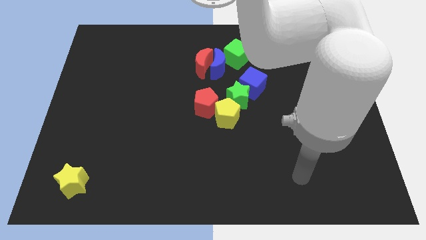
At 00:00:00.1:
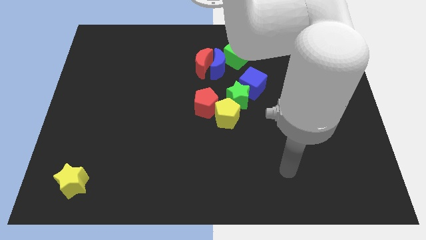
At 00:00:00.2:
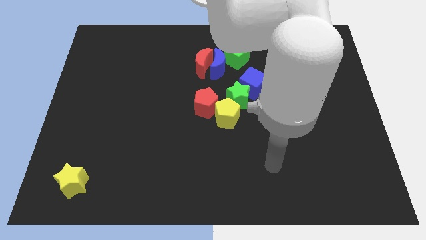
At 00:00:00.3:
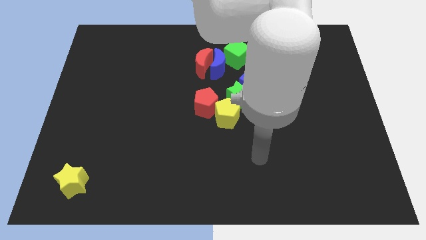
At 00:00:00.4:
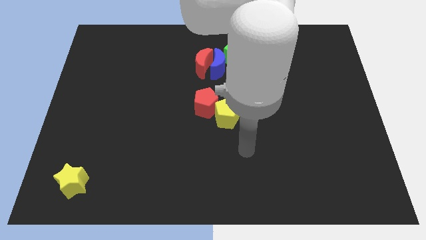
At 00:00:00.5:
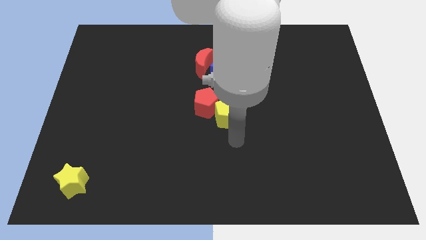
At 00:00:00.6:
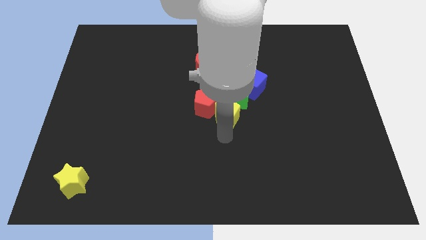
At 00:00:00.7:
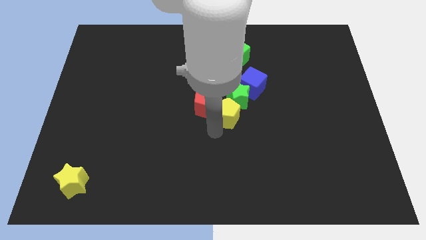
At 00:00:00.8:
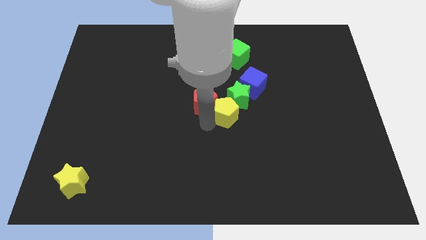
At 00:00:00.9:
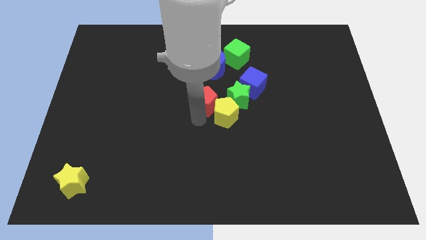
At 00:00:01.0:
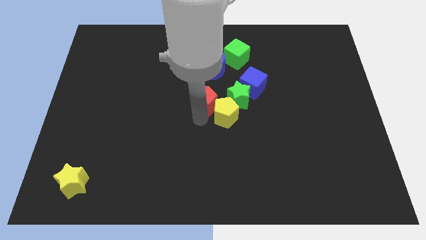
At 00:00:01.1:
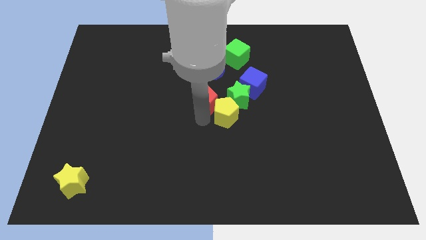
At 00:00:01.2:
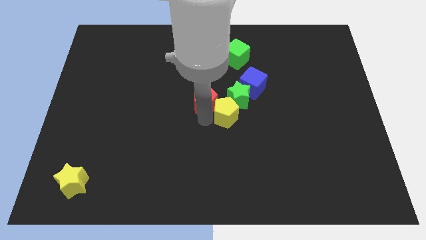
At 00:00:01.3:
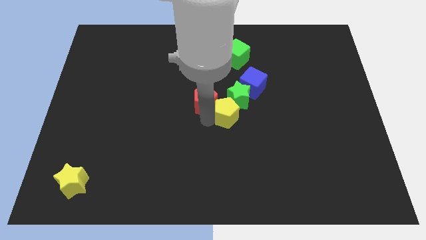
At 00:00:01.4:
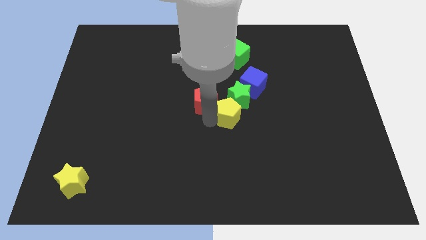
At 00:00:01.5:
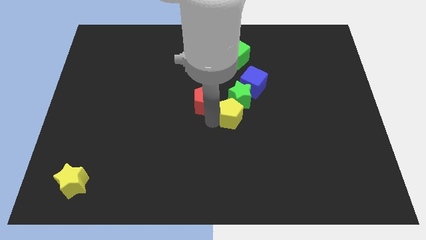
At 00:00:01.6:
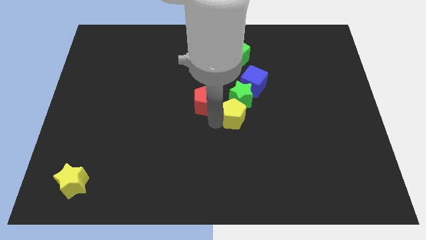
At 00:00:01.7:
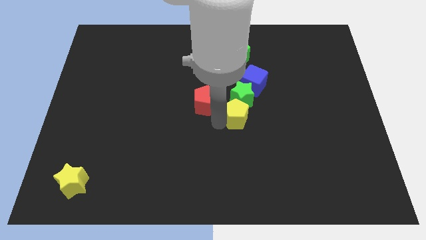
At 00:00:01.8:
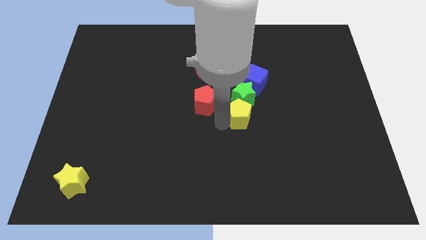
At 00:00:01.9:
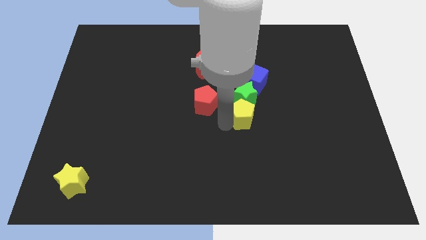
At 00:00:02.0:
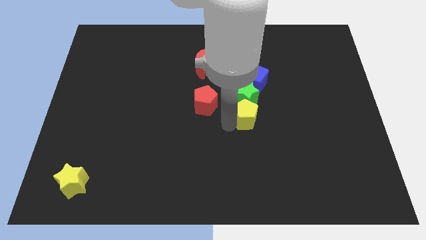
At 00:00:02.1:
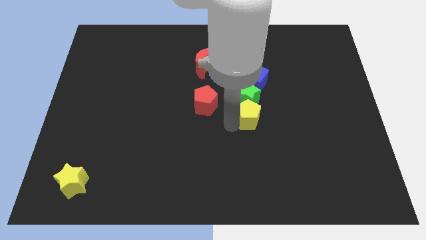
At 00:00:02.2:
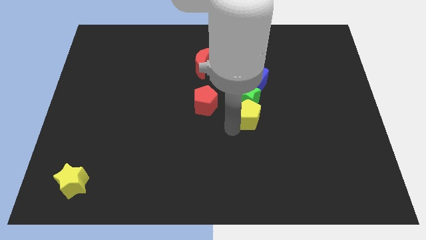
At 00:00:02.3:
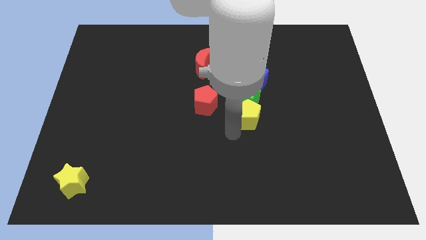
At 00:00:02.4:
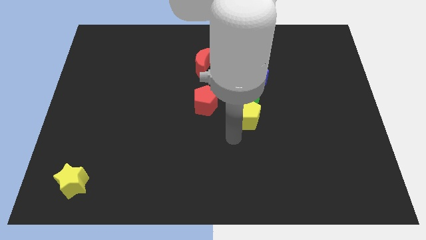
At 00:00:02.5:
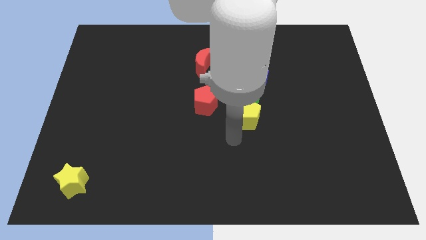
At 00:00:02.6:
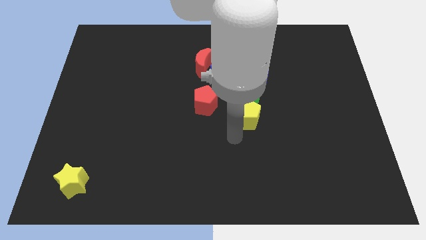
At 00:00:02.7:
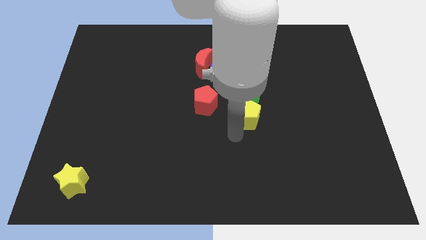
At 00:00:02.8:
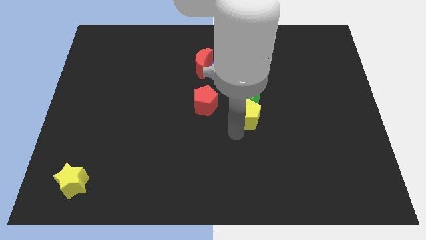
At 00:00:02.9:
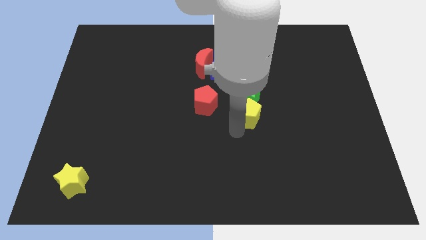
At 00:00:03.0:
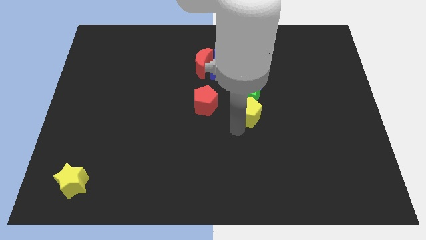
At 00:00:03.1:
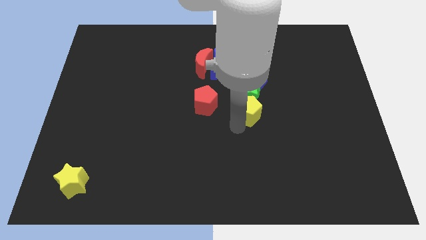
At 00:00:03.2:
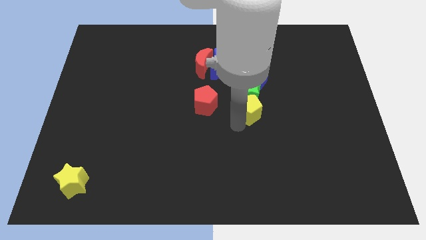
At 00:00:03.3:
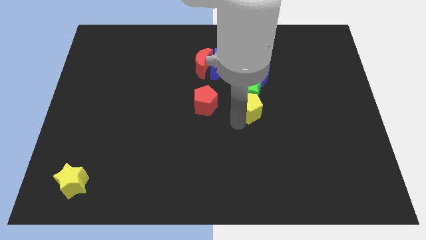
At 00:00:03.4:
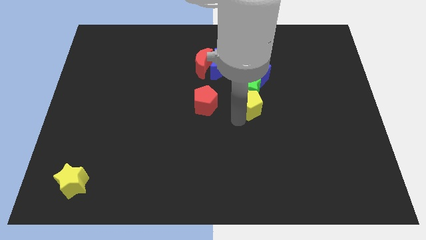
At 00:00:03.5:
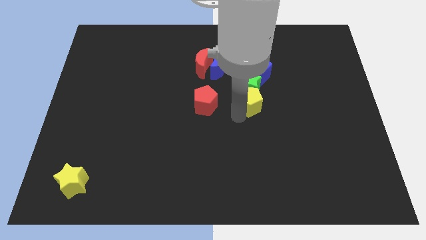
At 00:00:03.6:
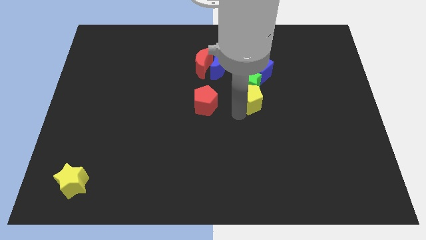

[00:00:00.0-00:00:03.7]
push the yellow pentagon somewhat up and to the right diagonally

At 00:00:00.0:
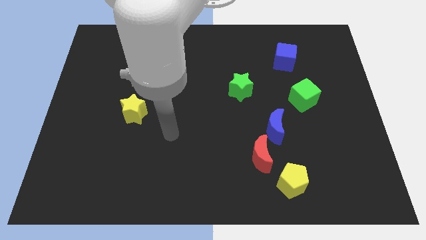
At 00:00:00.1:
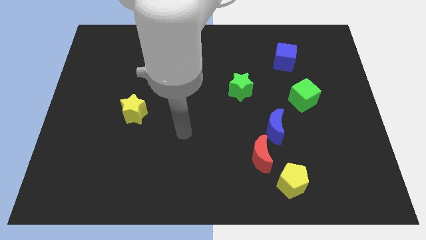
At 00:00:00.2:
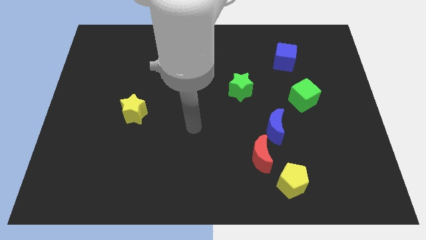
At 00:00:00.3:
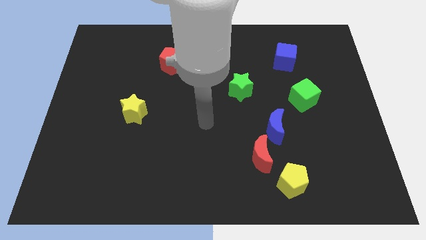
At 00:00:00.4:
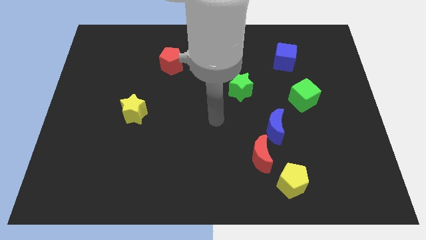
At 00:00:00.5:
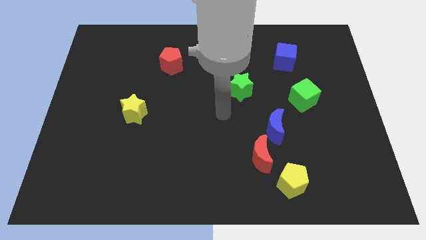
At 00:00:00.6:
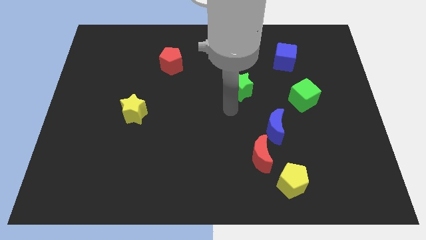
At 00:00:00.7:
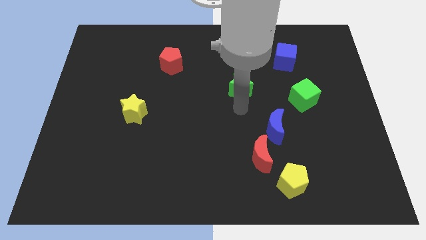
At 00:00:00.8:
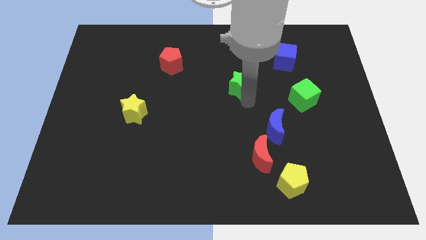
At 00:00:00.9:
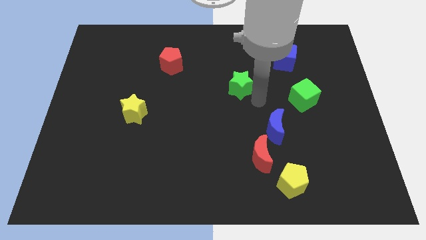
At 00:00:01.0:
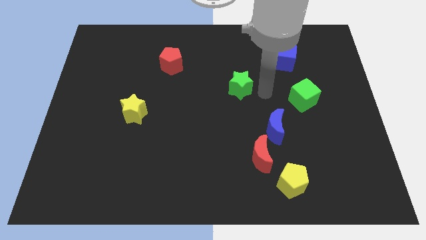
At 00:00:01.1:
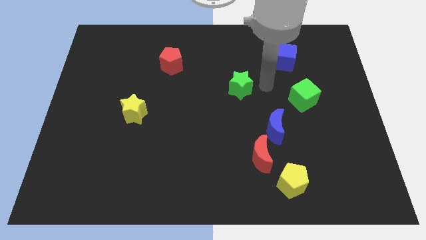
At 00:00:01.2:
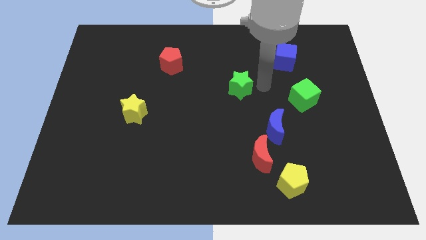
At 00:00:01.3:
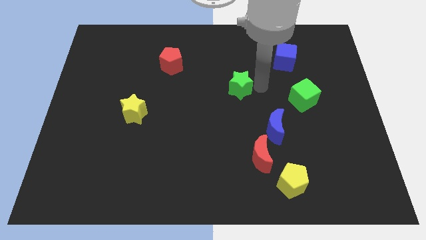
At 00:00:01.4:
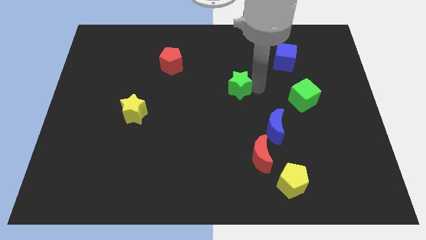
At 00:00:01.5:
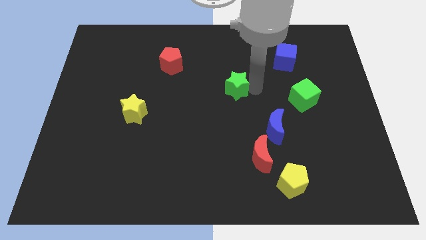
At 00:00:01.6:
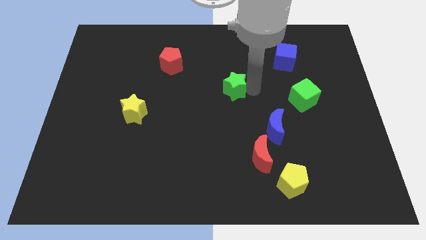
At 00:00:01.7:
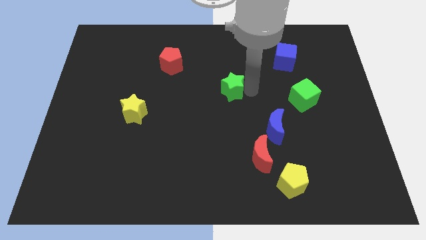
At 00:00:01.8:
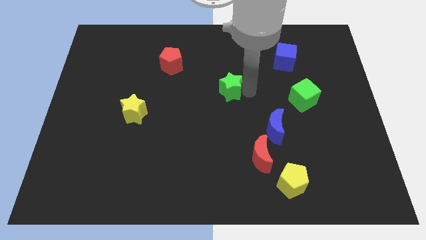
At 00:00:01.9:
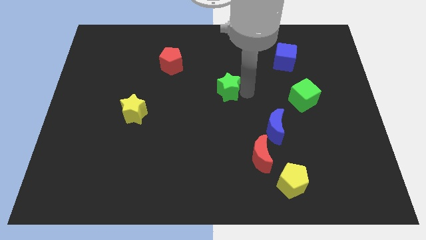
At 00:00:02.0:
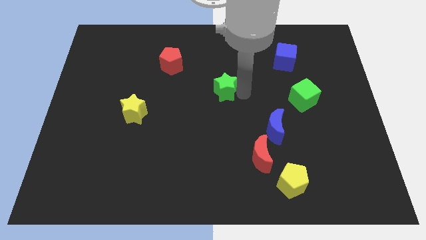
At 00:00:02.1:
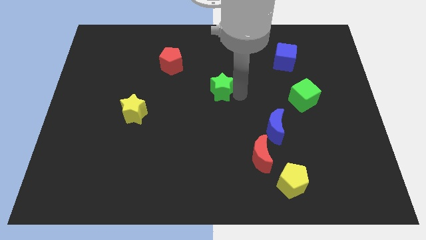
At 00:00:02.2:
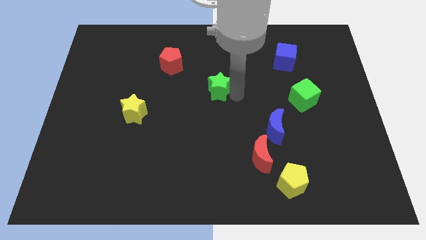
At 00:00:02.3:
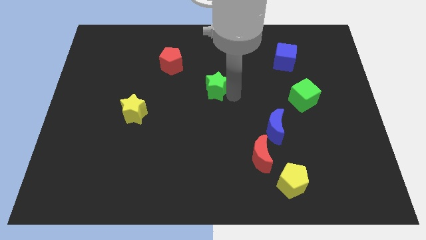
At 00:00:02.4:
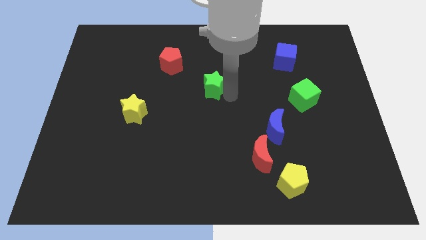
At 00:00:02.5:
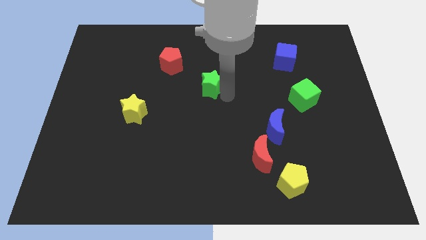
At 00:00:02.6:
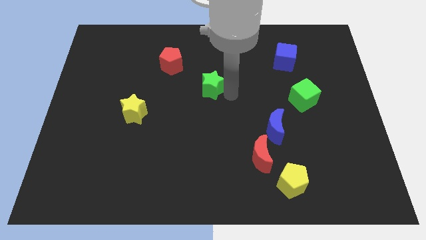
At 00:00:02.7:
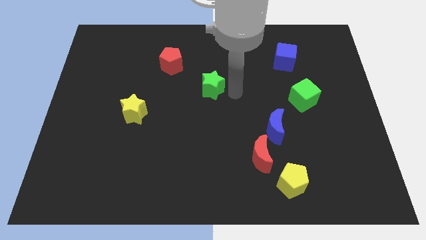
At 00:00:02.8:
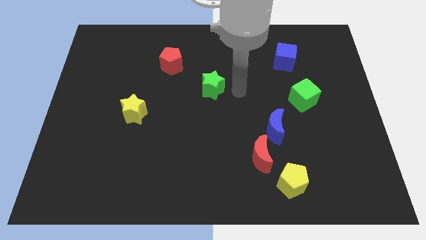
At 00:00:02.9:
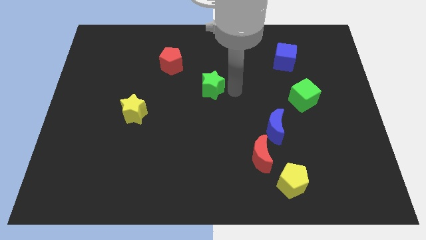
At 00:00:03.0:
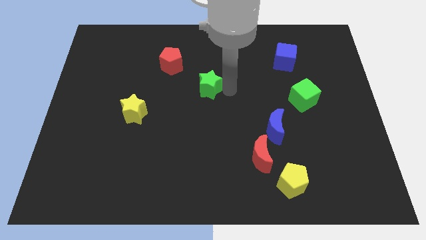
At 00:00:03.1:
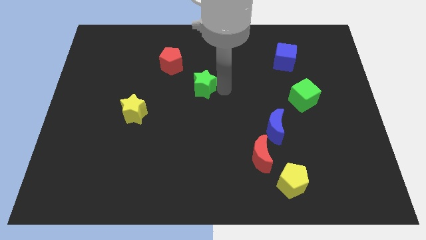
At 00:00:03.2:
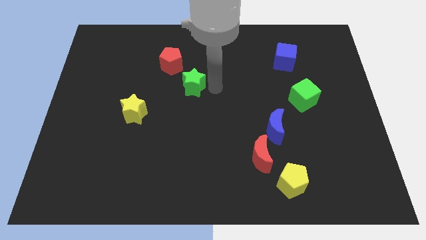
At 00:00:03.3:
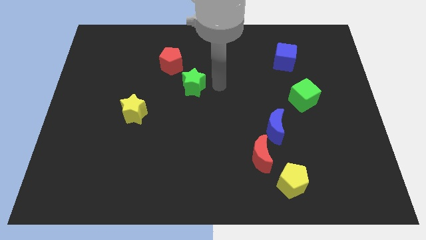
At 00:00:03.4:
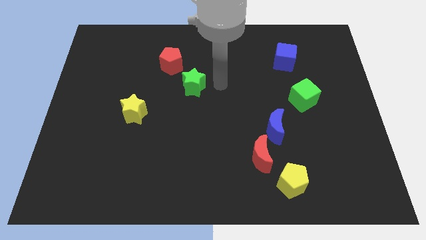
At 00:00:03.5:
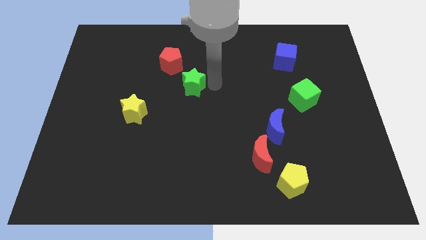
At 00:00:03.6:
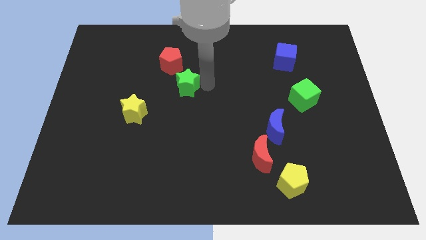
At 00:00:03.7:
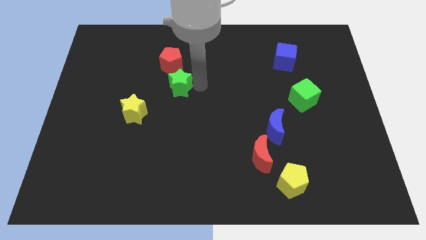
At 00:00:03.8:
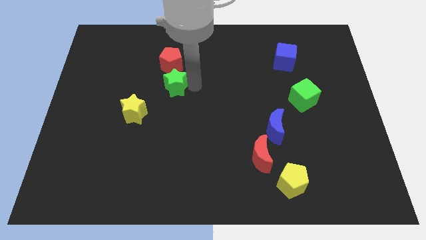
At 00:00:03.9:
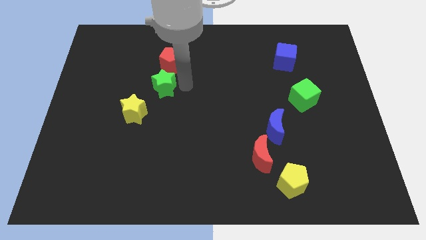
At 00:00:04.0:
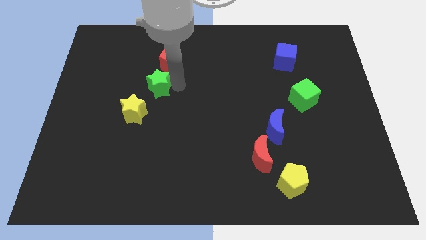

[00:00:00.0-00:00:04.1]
slide the green star to the left
